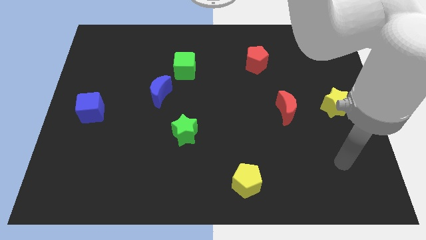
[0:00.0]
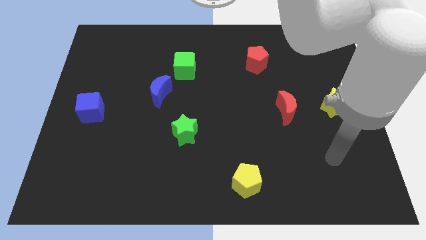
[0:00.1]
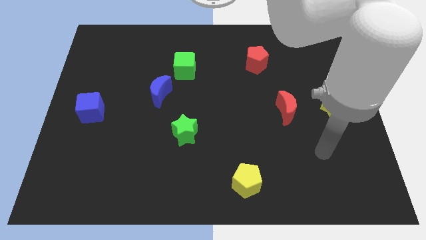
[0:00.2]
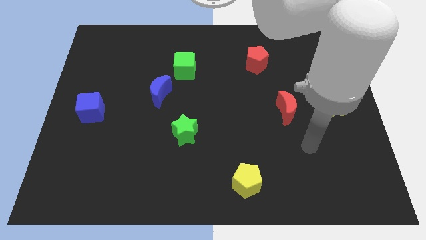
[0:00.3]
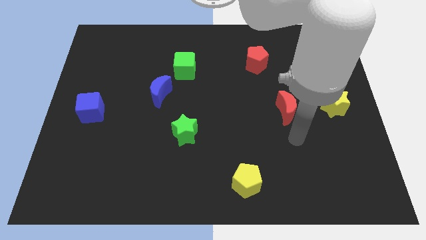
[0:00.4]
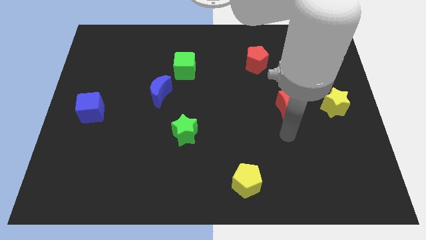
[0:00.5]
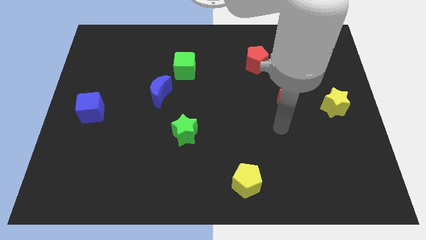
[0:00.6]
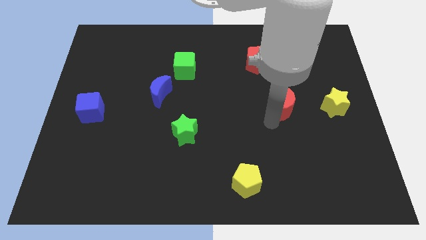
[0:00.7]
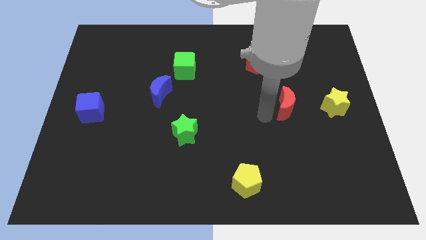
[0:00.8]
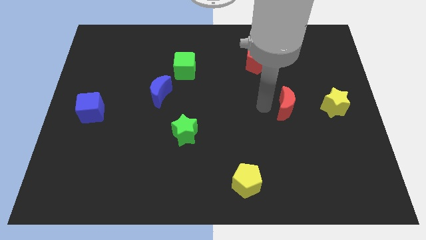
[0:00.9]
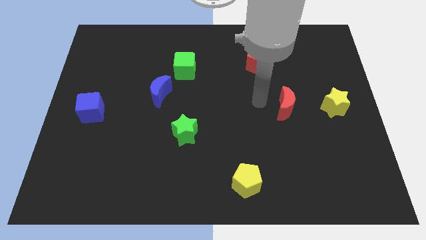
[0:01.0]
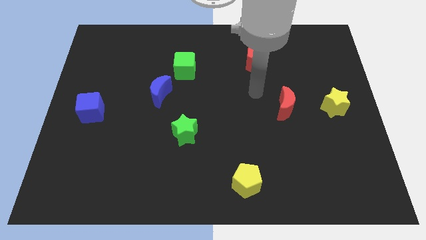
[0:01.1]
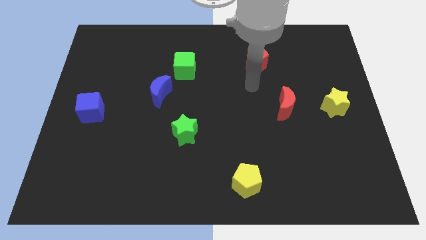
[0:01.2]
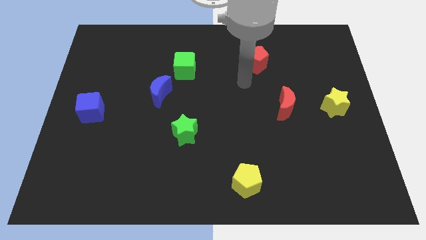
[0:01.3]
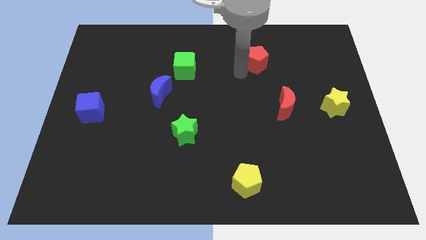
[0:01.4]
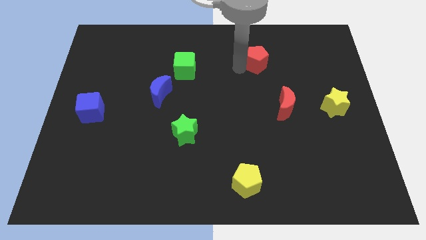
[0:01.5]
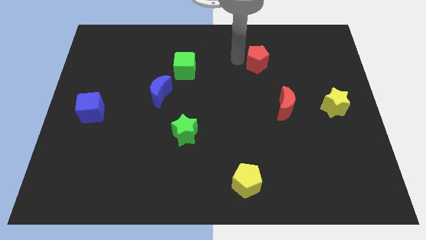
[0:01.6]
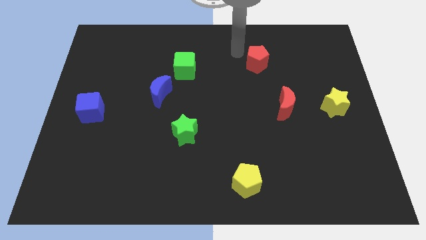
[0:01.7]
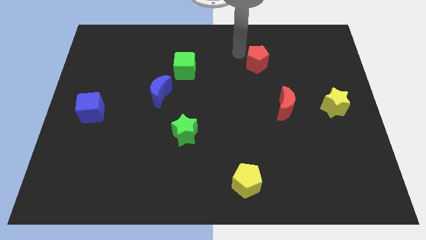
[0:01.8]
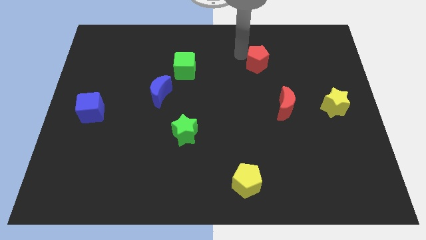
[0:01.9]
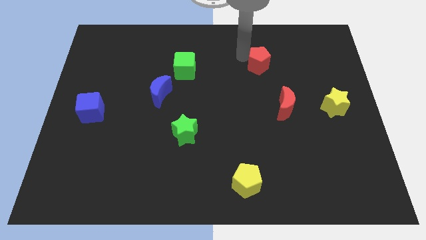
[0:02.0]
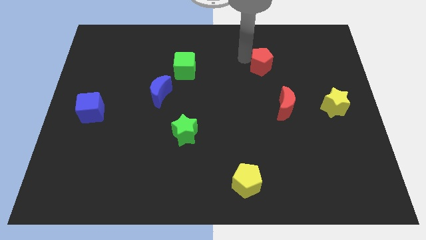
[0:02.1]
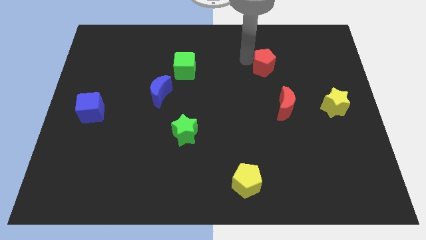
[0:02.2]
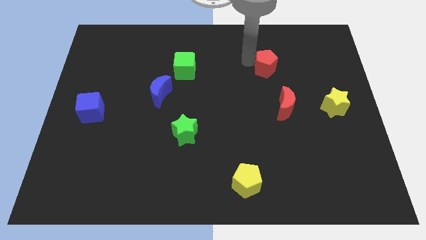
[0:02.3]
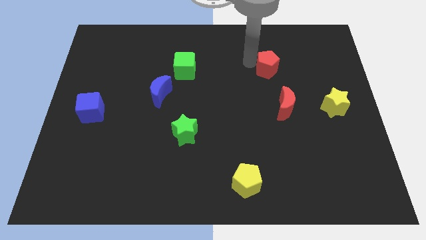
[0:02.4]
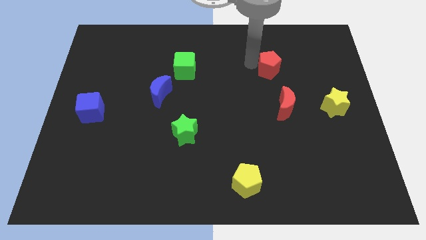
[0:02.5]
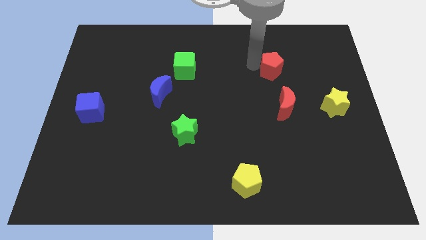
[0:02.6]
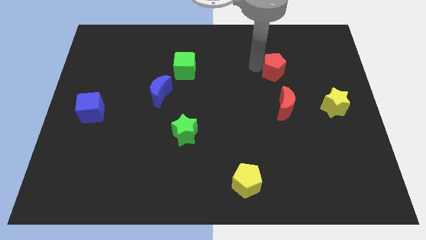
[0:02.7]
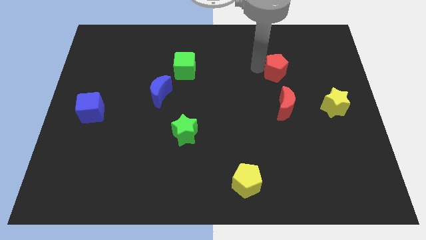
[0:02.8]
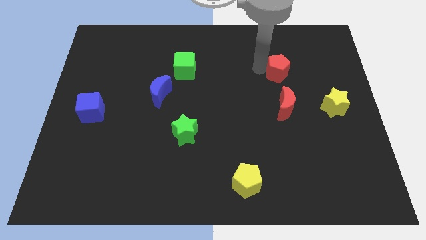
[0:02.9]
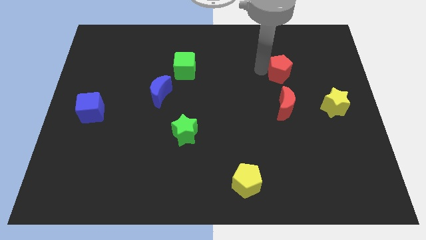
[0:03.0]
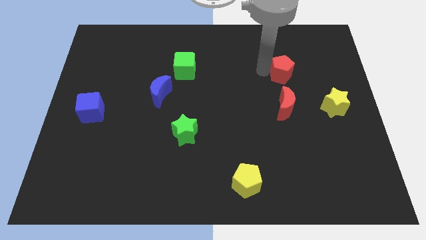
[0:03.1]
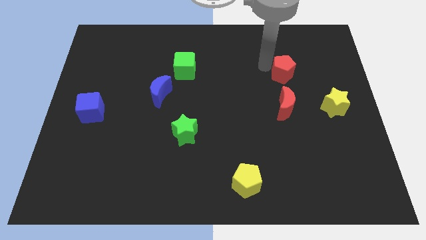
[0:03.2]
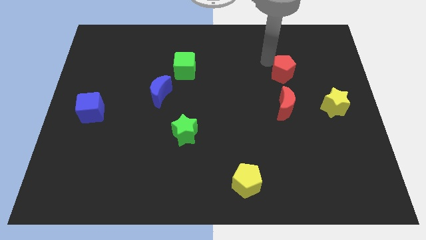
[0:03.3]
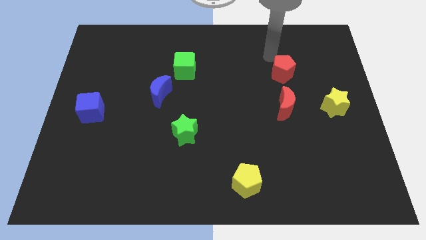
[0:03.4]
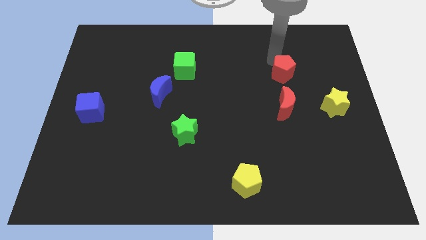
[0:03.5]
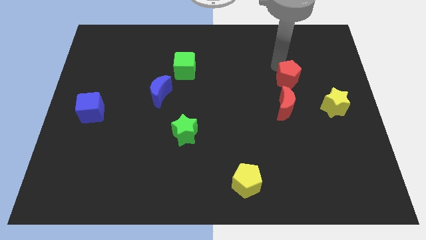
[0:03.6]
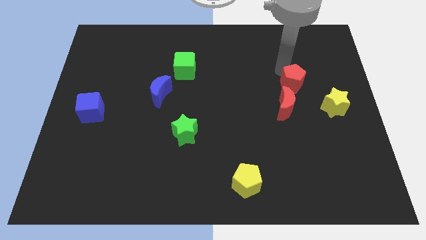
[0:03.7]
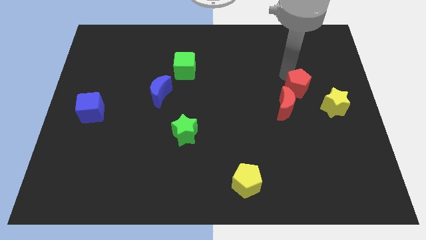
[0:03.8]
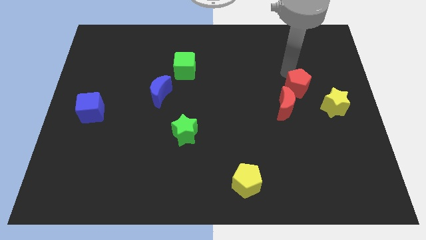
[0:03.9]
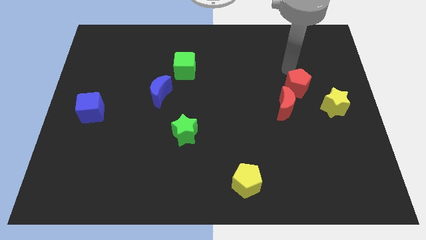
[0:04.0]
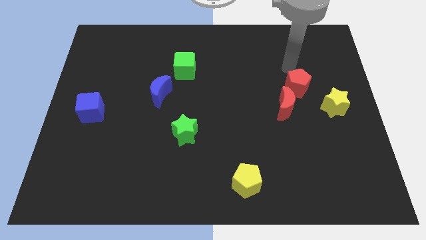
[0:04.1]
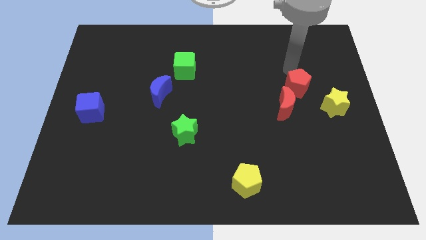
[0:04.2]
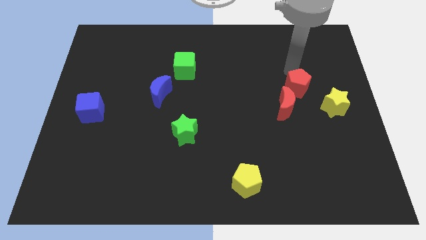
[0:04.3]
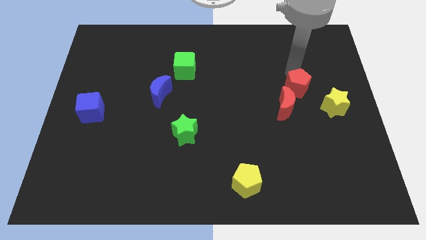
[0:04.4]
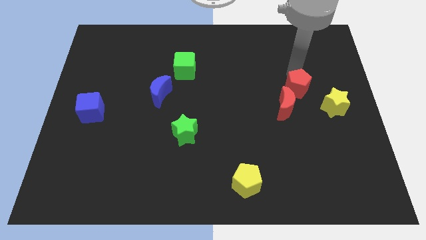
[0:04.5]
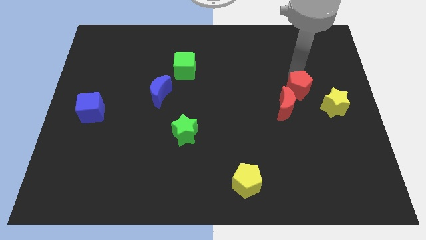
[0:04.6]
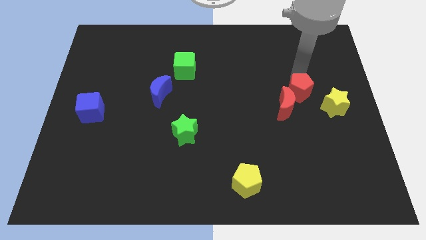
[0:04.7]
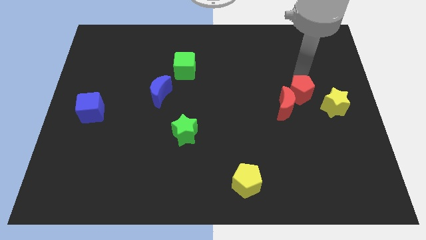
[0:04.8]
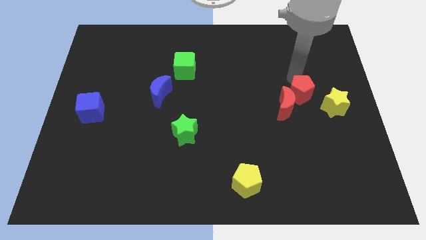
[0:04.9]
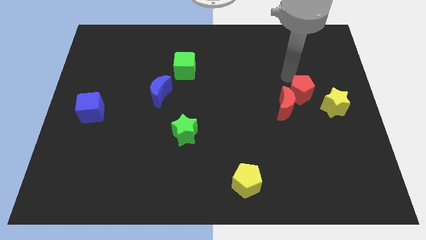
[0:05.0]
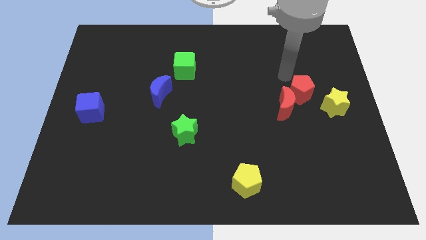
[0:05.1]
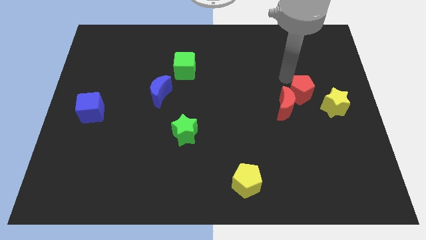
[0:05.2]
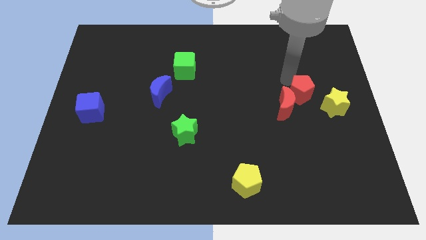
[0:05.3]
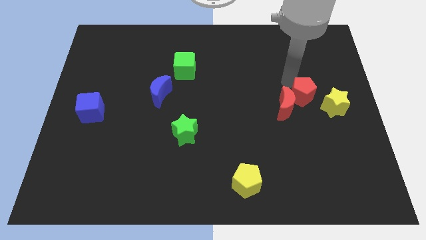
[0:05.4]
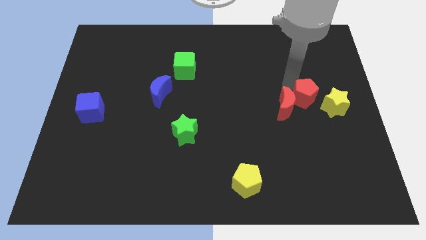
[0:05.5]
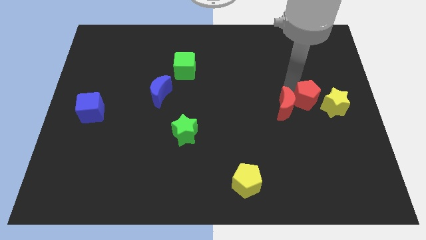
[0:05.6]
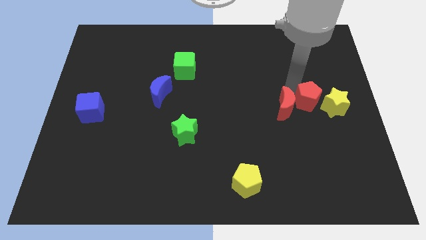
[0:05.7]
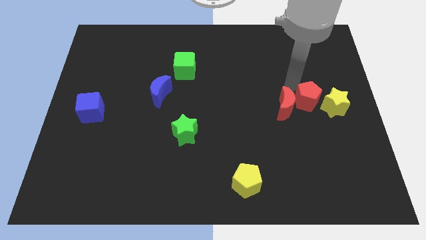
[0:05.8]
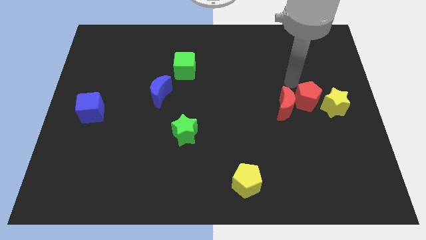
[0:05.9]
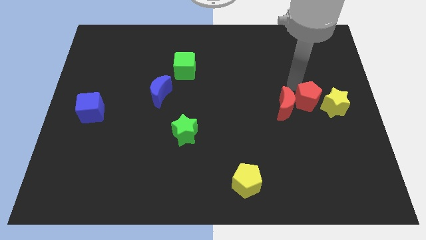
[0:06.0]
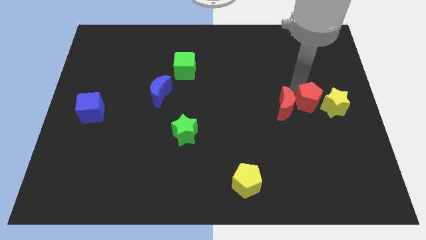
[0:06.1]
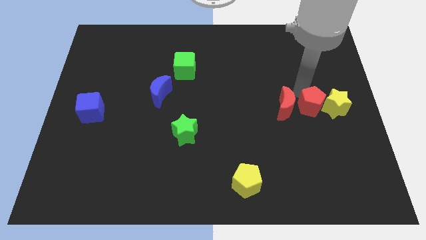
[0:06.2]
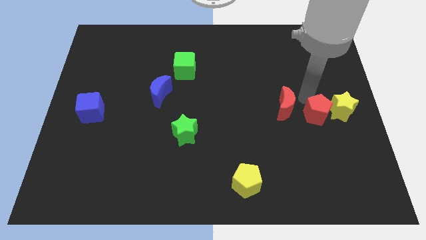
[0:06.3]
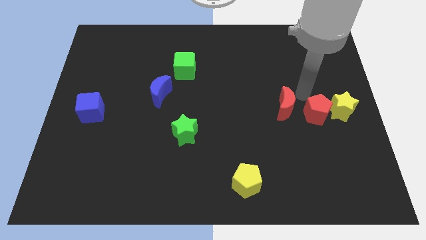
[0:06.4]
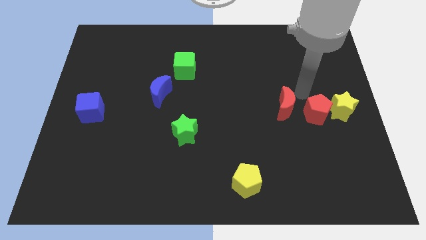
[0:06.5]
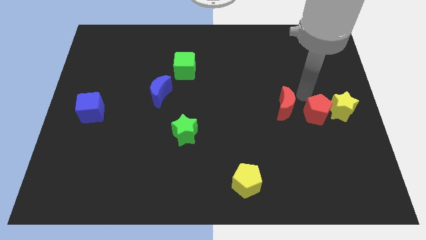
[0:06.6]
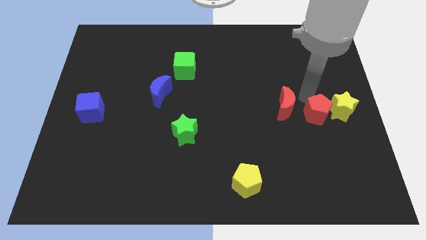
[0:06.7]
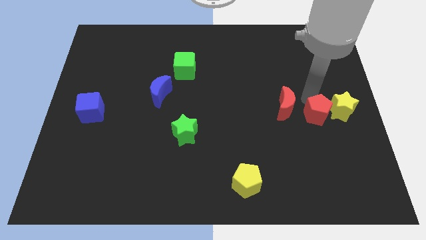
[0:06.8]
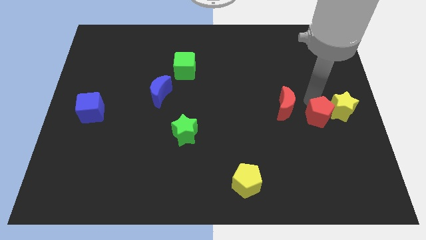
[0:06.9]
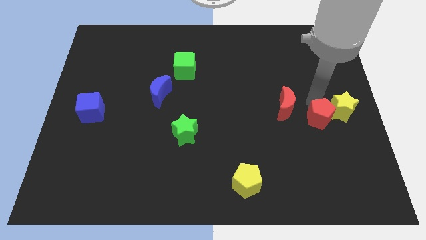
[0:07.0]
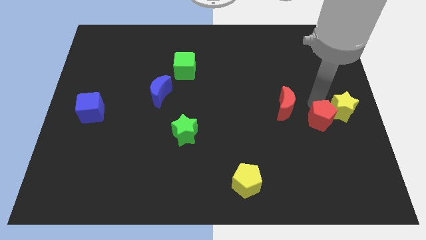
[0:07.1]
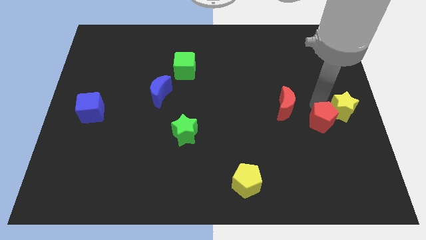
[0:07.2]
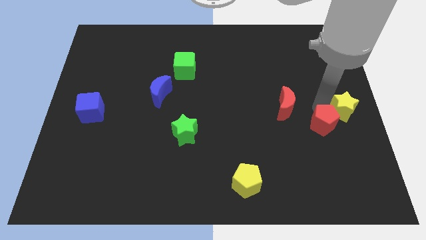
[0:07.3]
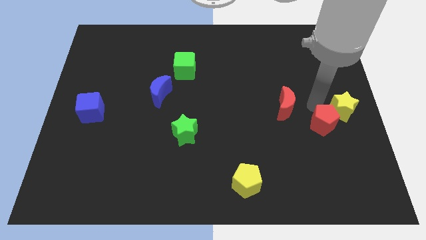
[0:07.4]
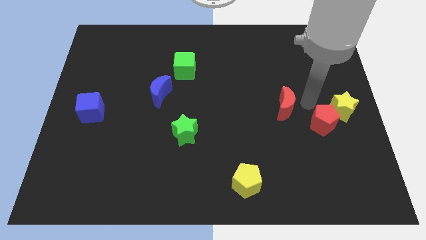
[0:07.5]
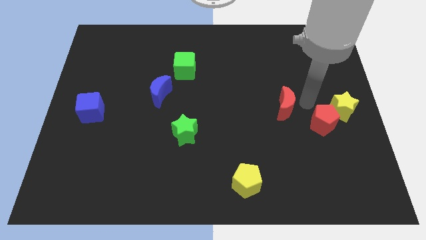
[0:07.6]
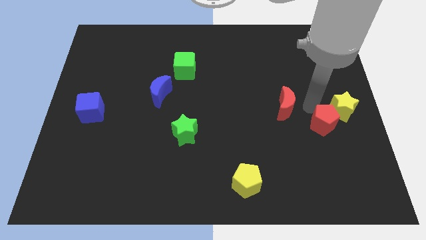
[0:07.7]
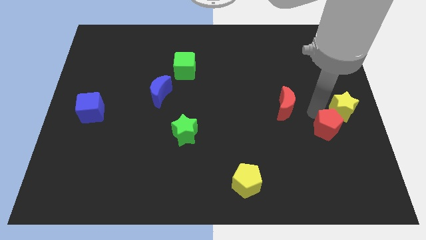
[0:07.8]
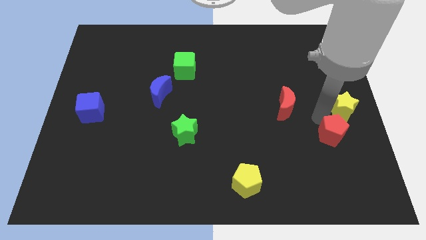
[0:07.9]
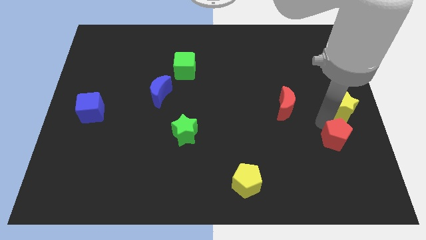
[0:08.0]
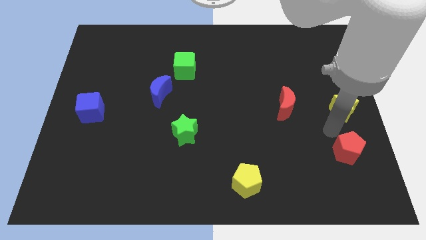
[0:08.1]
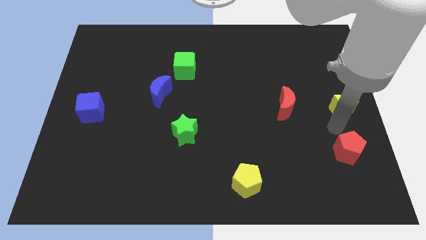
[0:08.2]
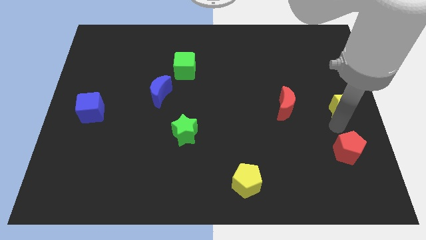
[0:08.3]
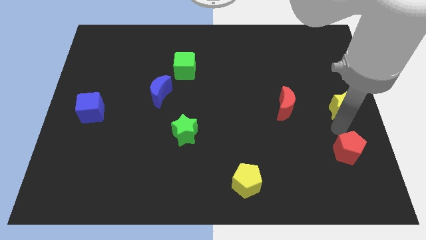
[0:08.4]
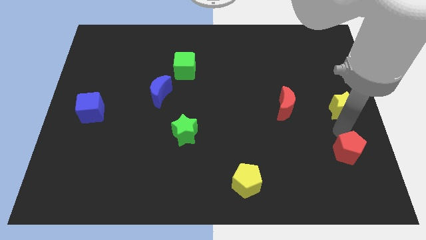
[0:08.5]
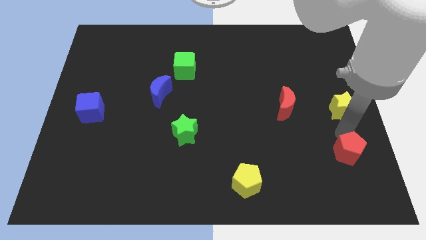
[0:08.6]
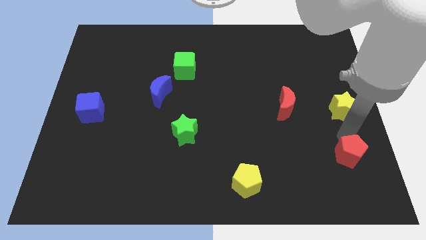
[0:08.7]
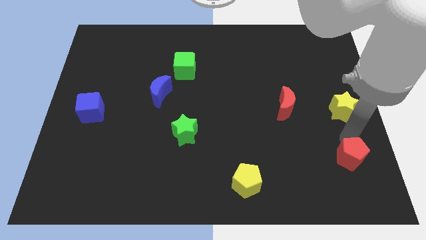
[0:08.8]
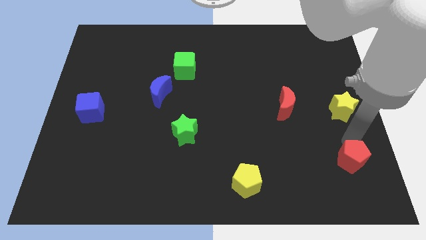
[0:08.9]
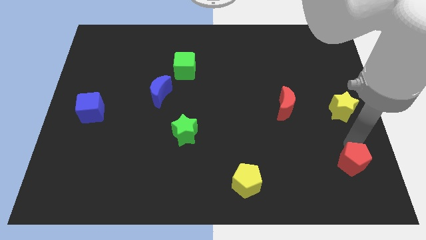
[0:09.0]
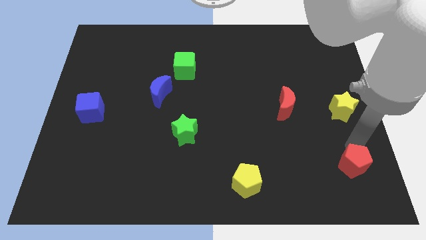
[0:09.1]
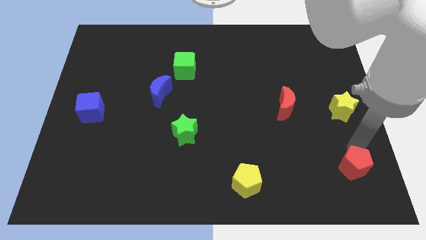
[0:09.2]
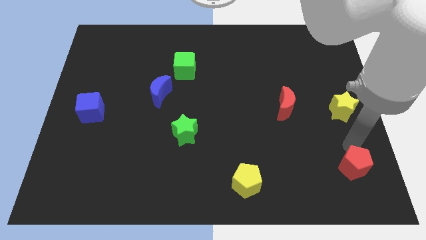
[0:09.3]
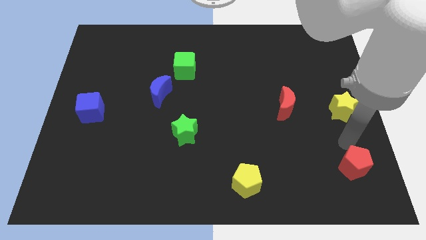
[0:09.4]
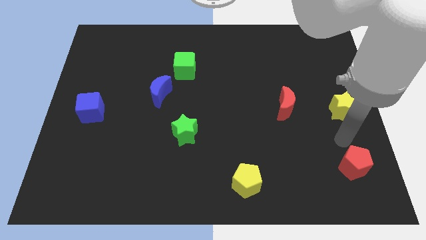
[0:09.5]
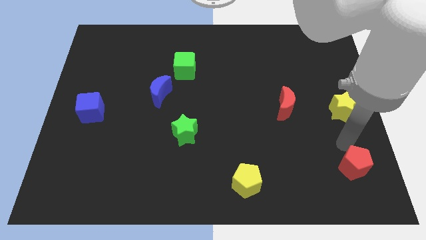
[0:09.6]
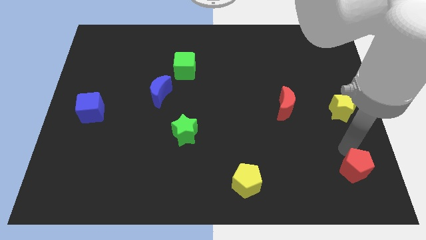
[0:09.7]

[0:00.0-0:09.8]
push the red pentagon to the bottom right
